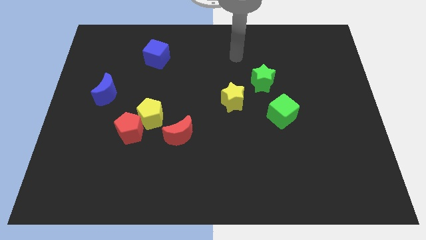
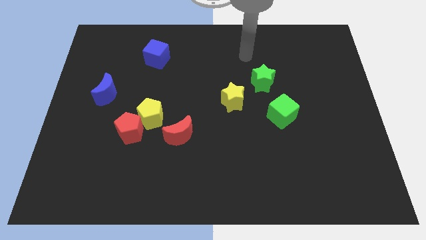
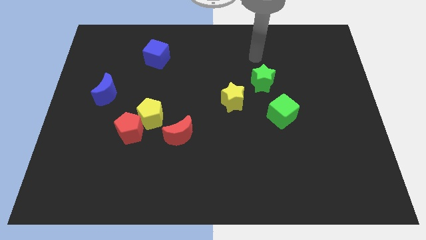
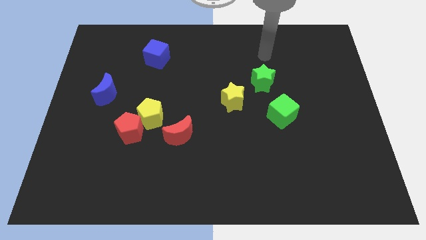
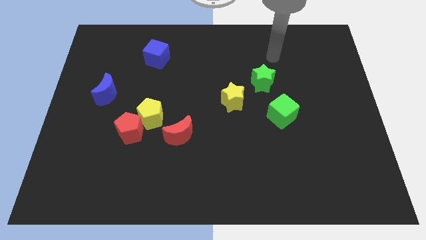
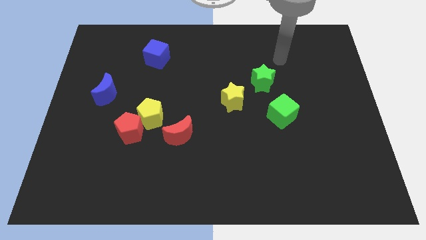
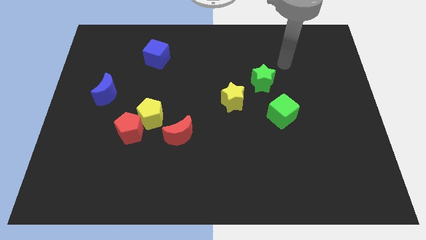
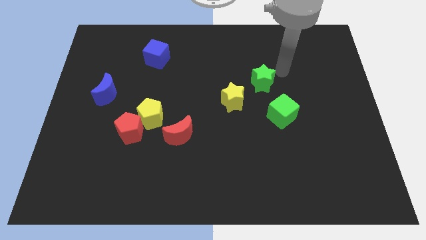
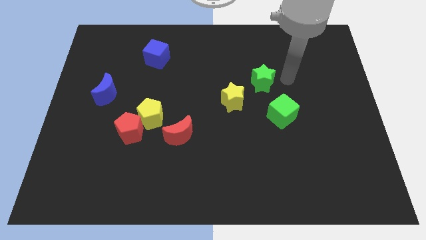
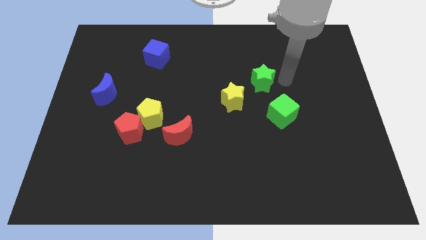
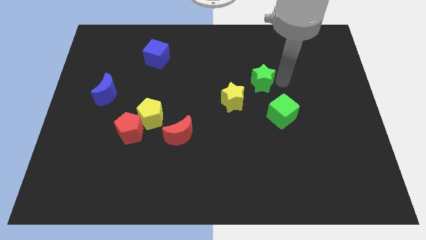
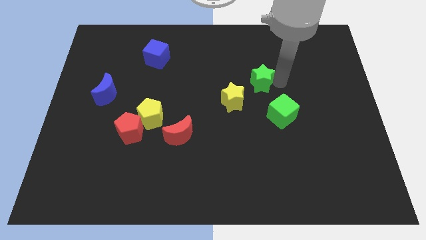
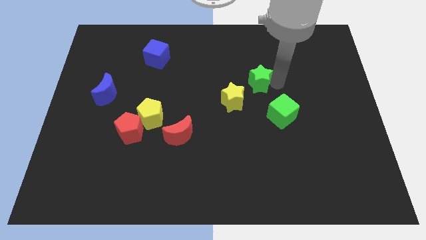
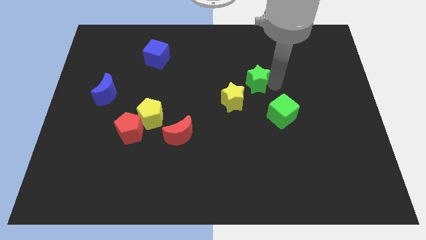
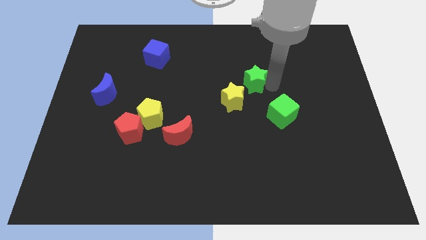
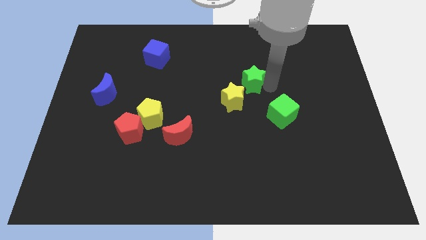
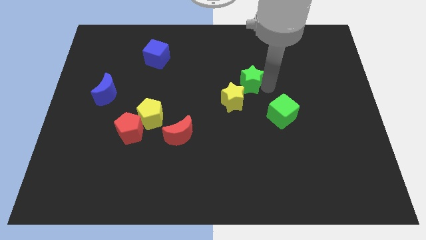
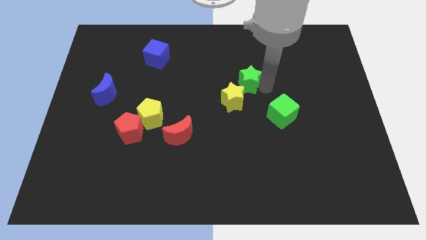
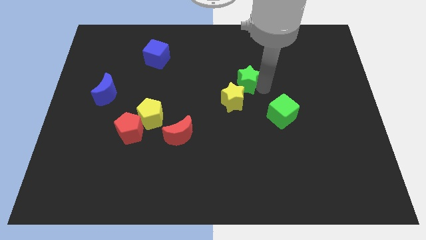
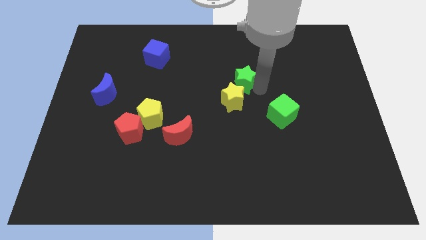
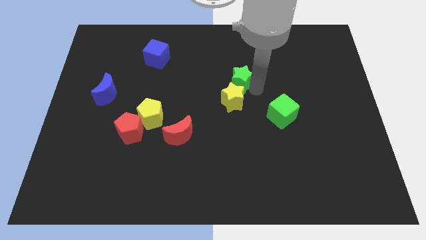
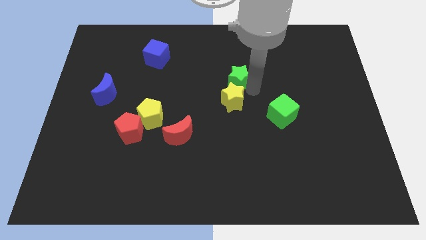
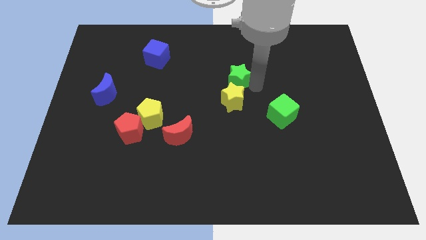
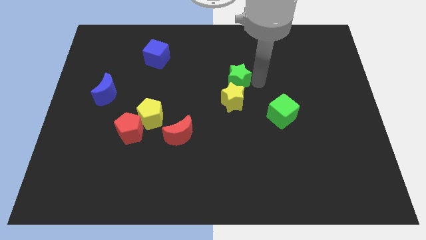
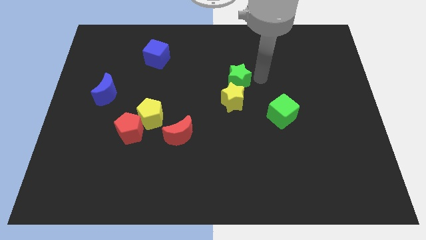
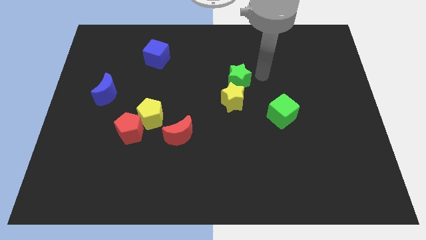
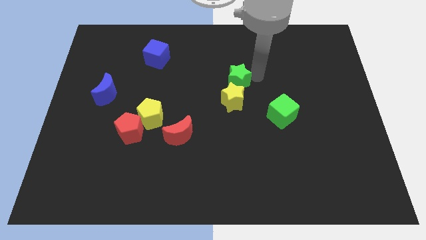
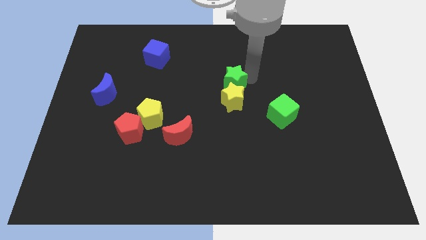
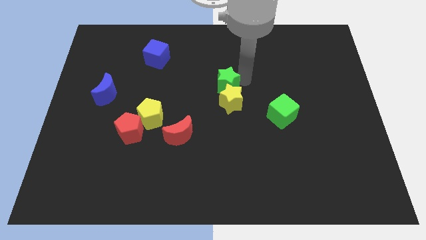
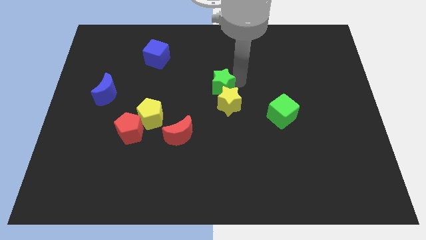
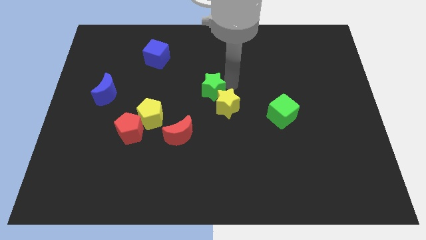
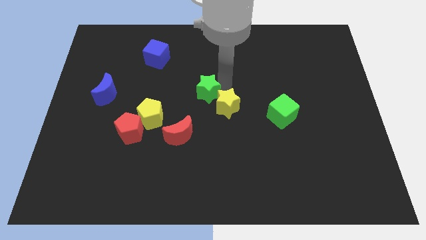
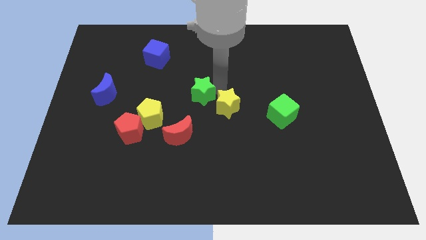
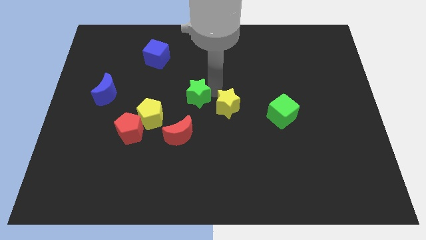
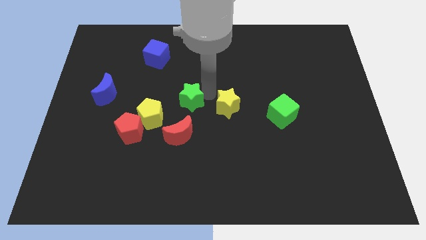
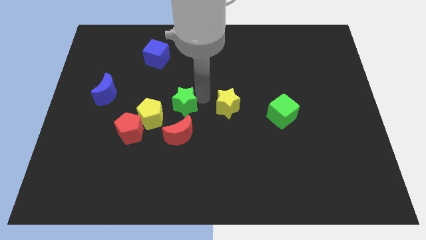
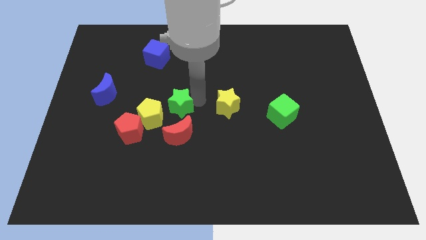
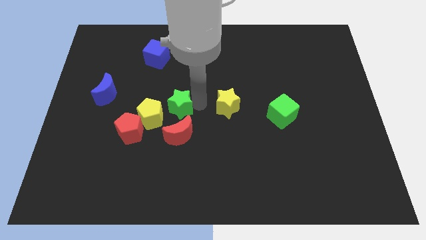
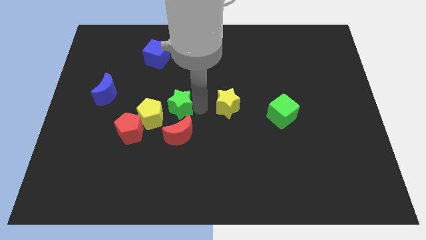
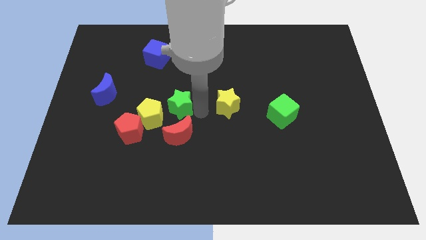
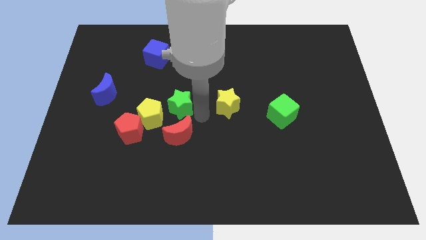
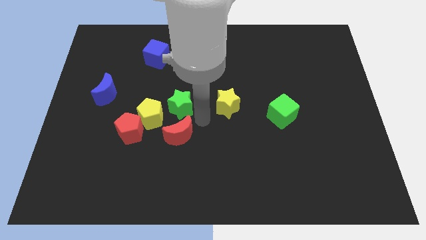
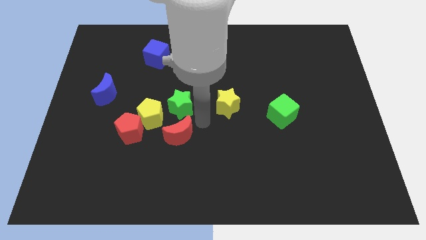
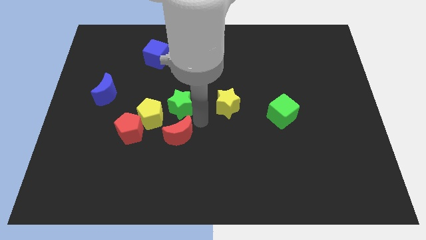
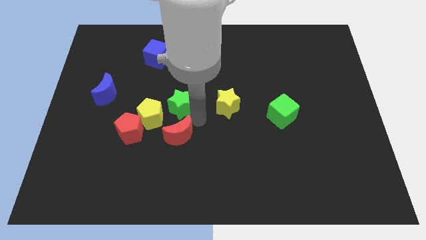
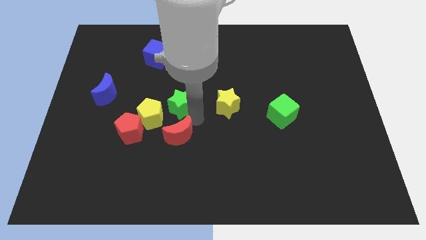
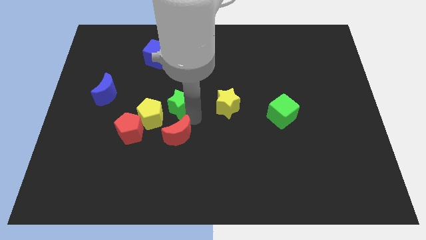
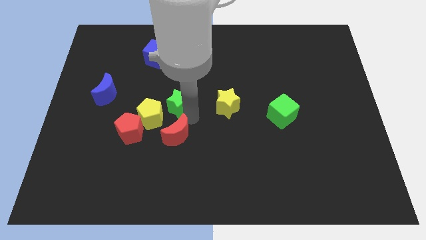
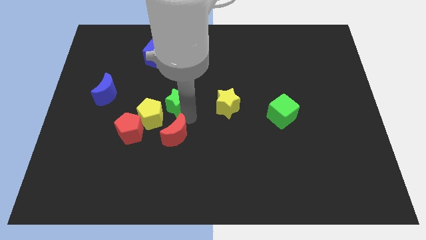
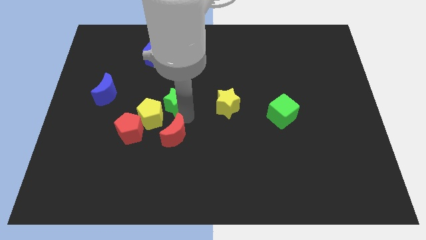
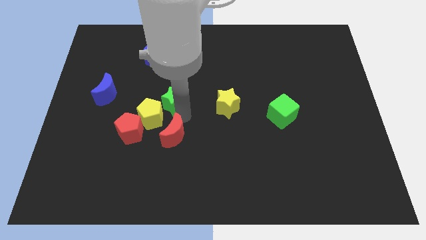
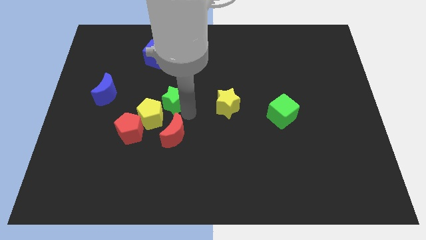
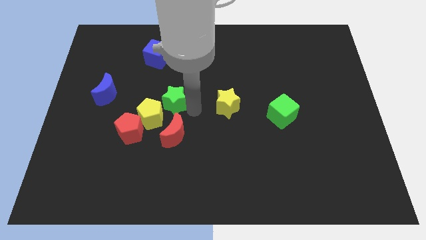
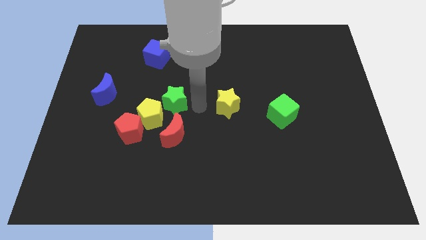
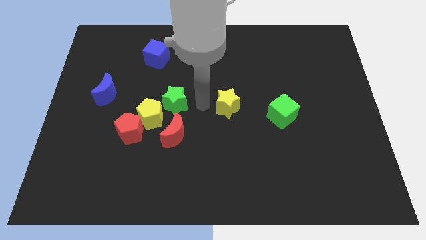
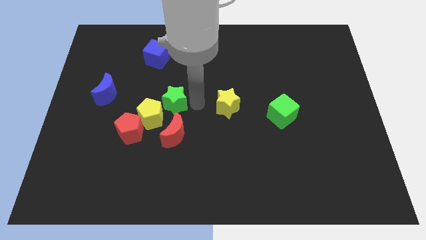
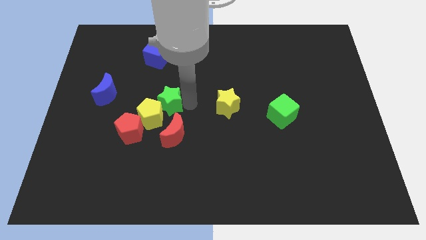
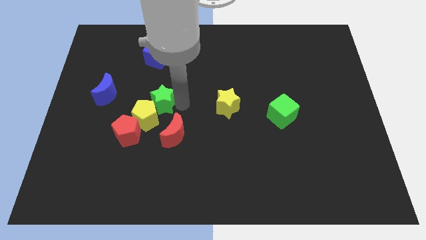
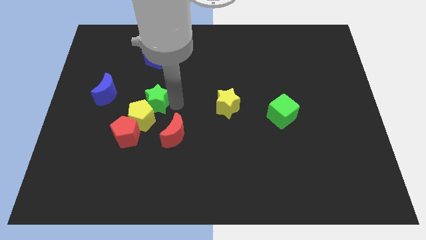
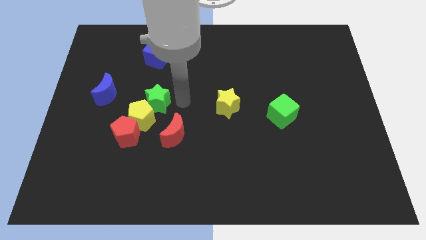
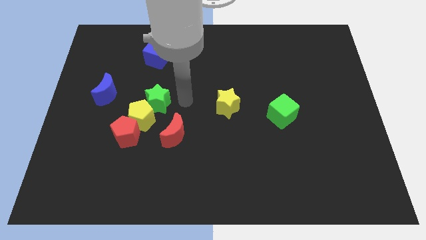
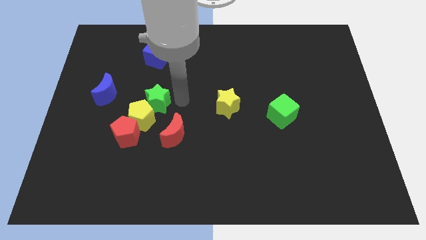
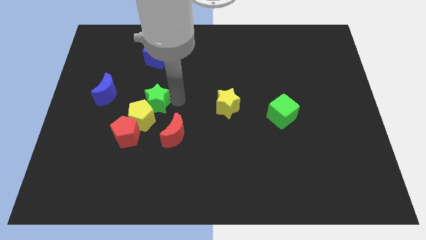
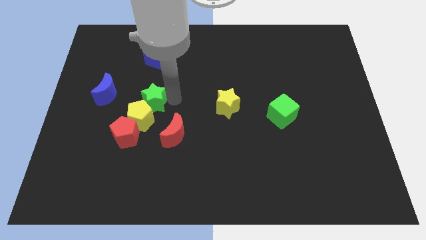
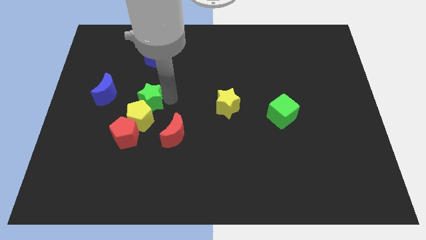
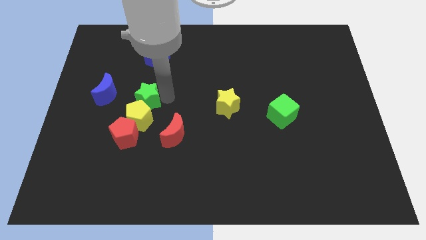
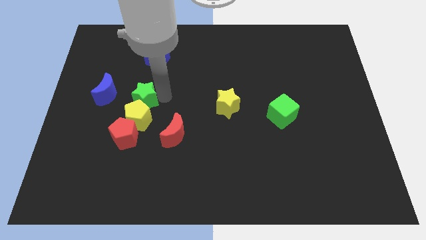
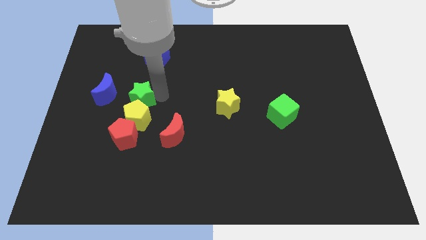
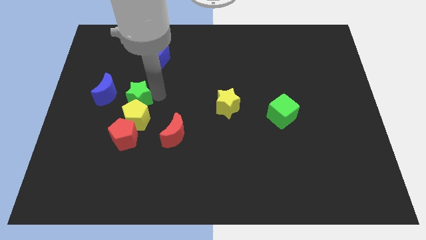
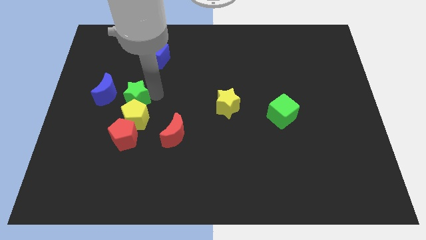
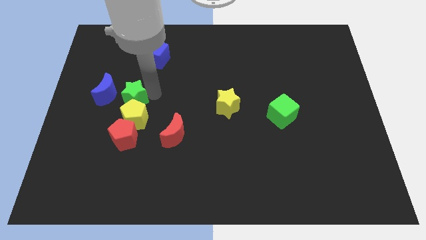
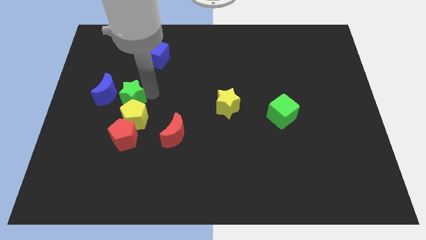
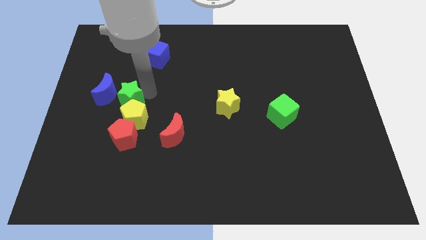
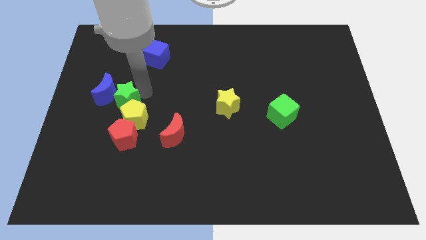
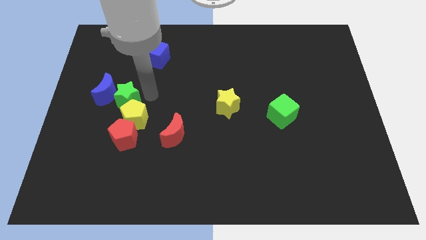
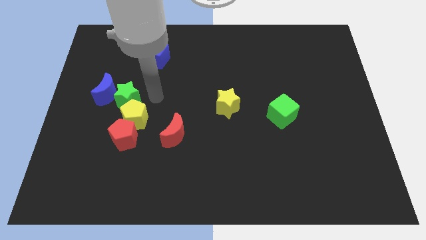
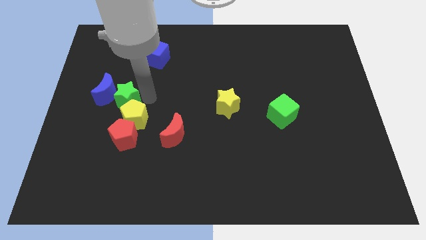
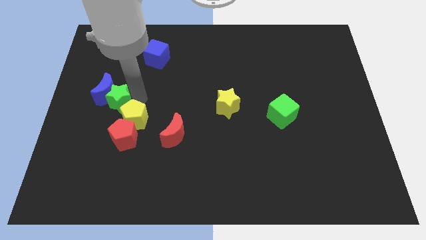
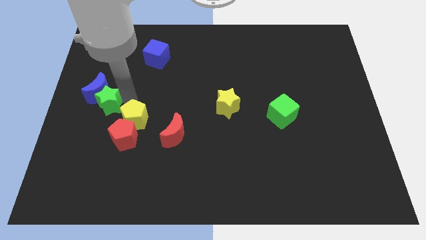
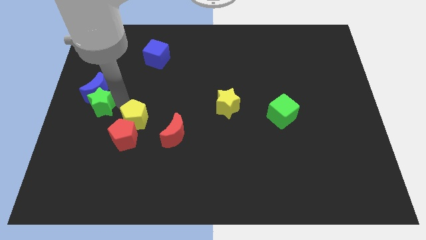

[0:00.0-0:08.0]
push the green star to the left side of the board

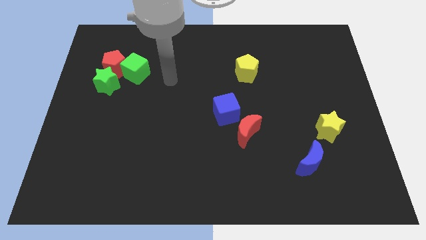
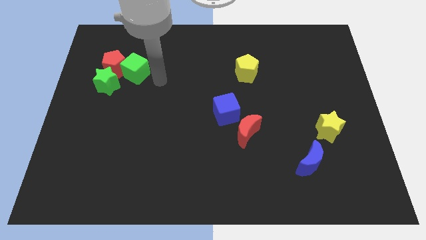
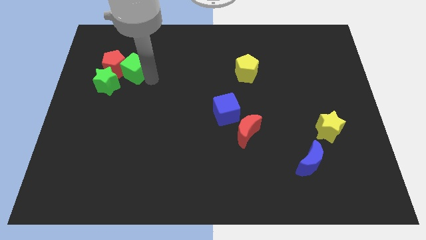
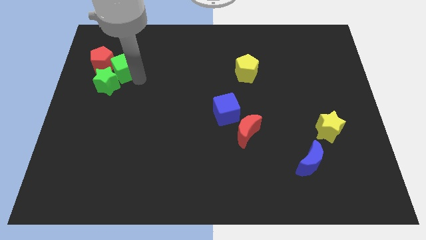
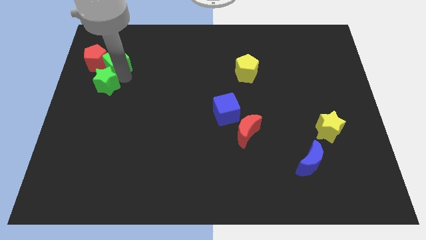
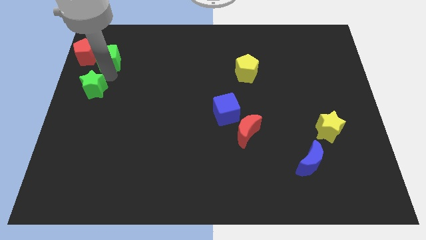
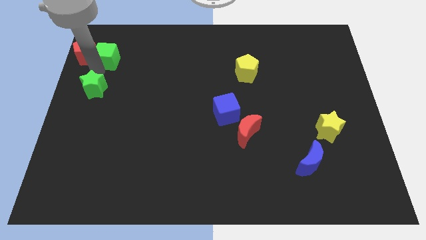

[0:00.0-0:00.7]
put the red pentagon to the upper left corner
